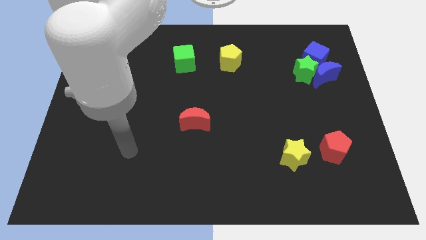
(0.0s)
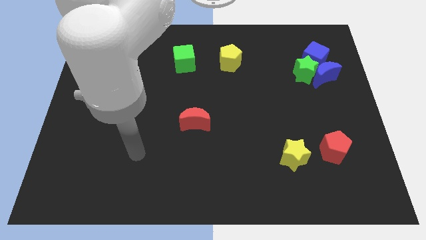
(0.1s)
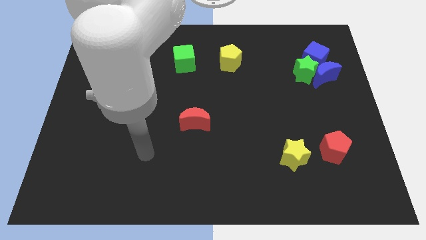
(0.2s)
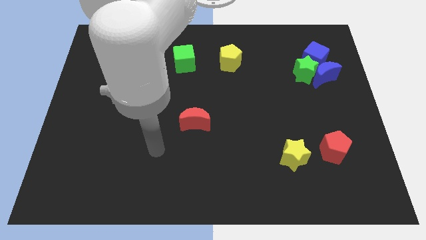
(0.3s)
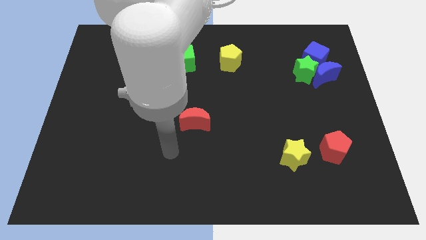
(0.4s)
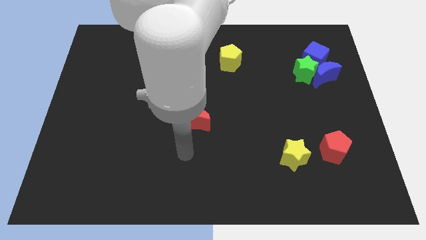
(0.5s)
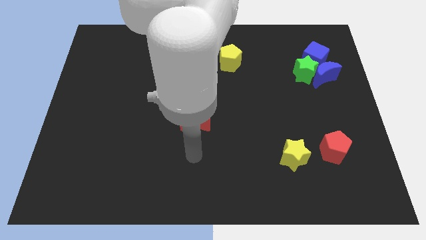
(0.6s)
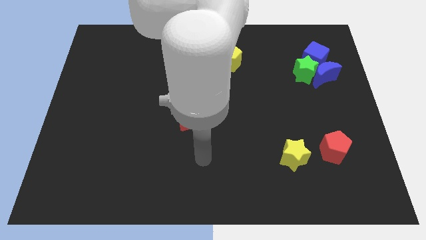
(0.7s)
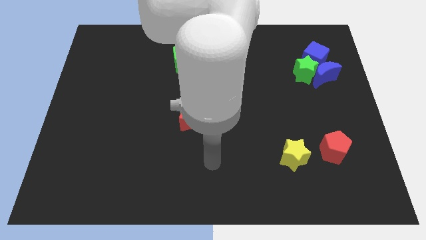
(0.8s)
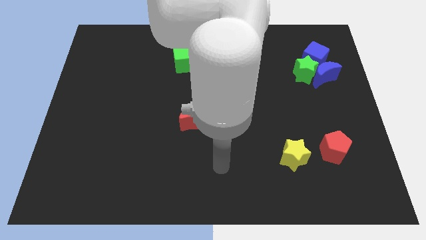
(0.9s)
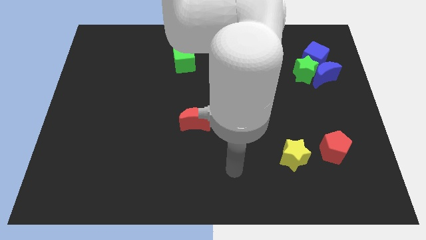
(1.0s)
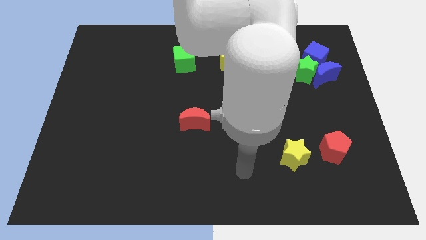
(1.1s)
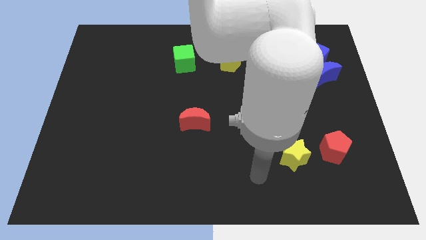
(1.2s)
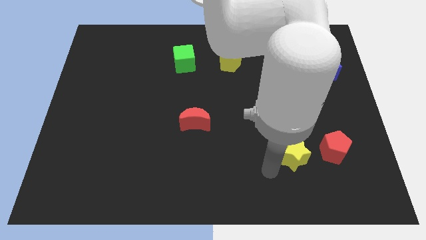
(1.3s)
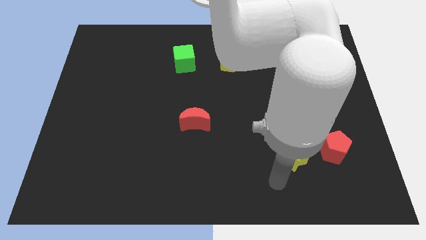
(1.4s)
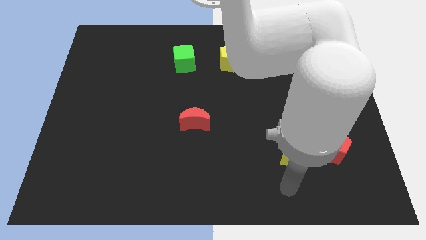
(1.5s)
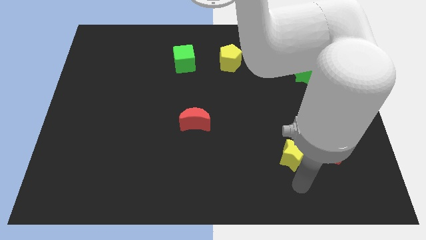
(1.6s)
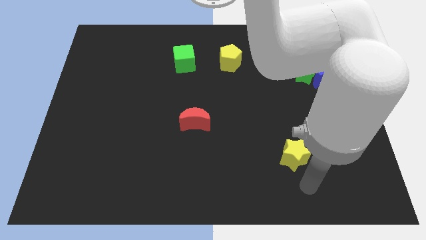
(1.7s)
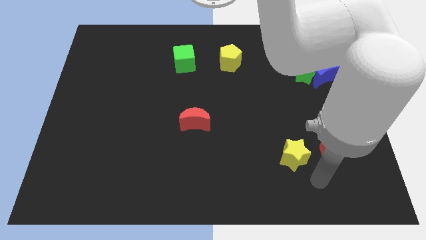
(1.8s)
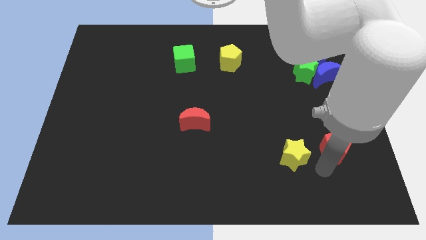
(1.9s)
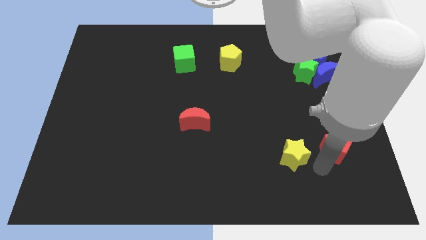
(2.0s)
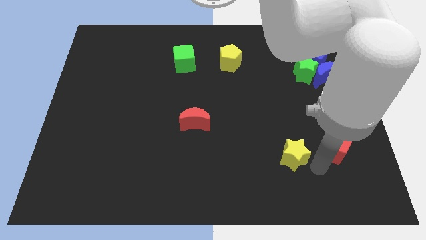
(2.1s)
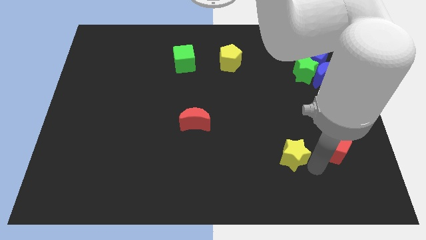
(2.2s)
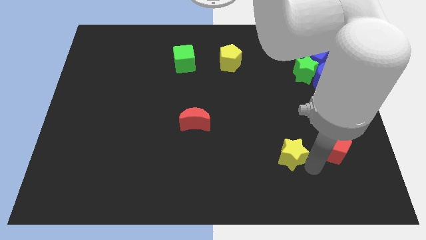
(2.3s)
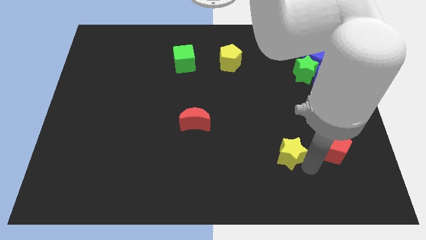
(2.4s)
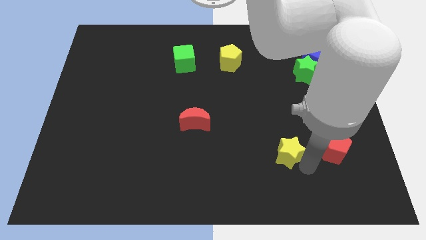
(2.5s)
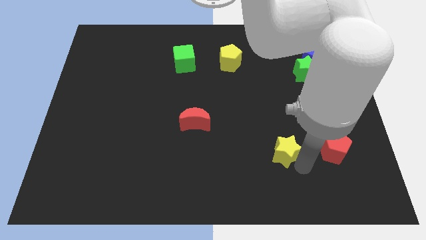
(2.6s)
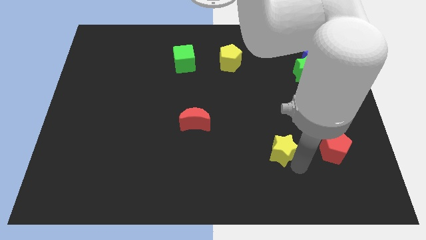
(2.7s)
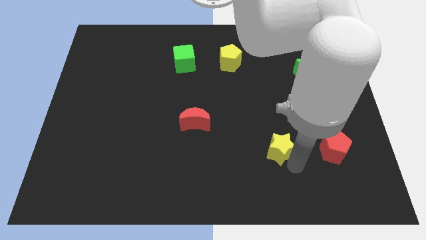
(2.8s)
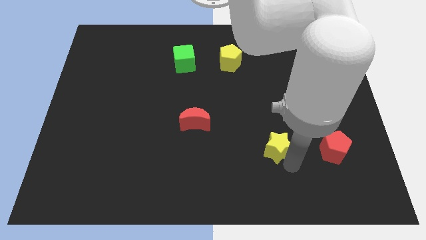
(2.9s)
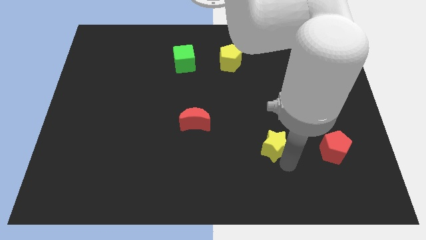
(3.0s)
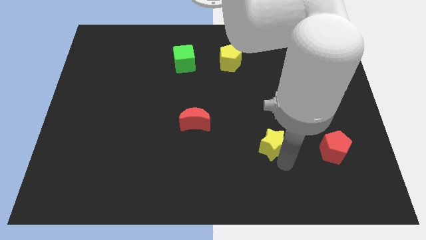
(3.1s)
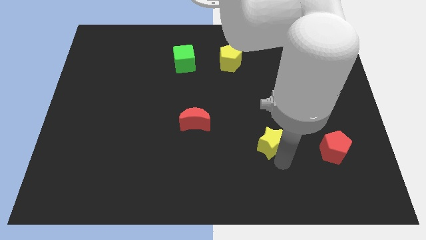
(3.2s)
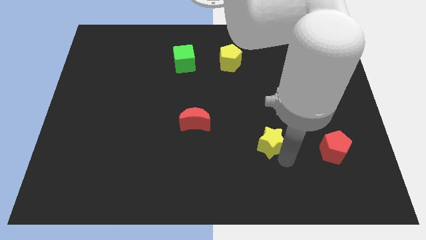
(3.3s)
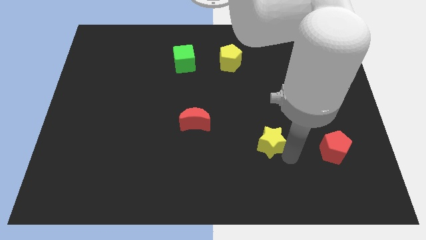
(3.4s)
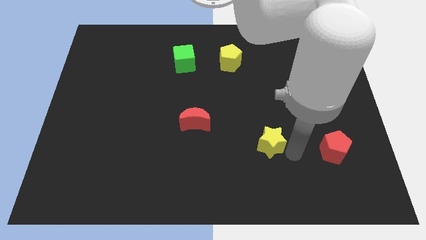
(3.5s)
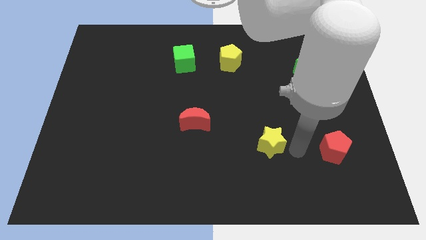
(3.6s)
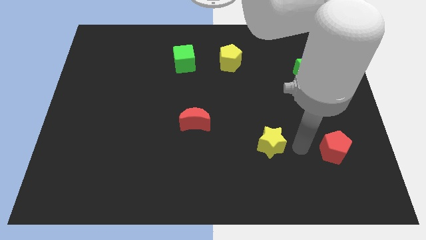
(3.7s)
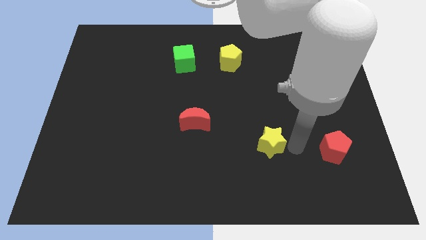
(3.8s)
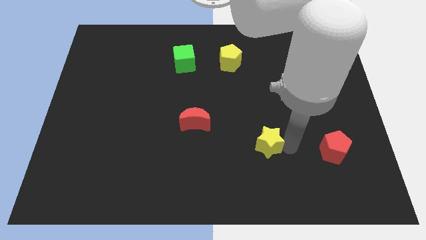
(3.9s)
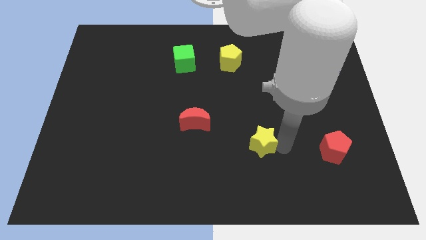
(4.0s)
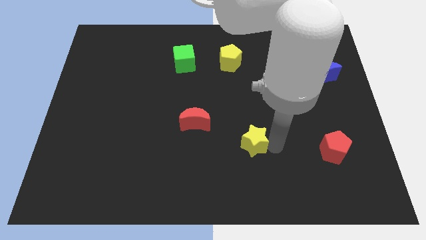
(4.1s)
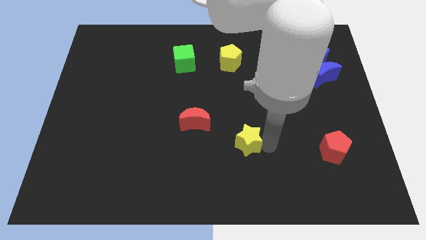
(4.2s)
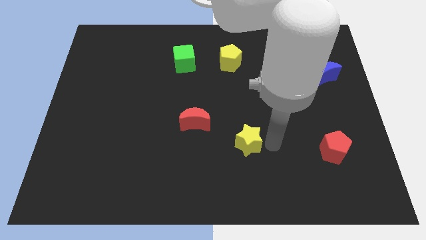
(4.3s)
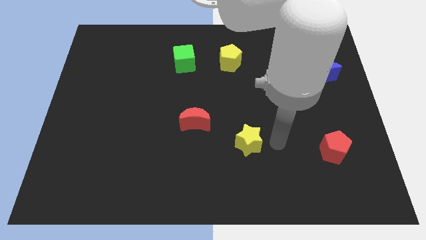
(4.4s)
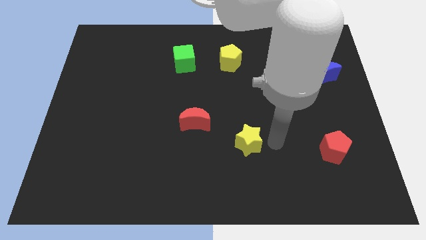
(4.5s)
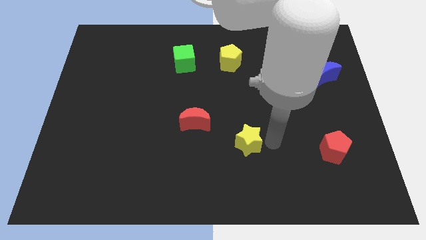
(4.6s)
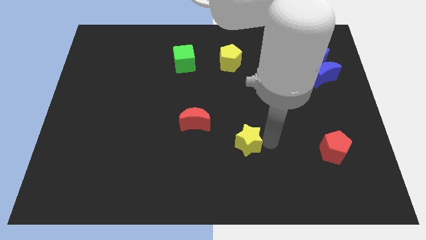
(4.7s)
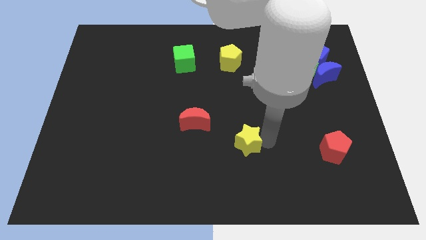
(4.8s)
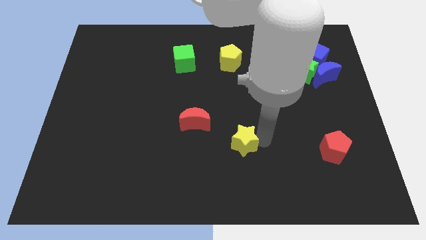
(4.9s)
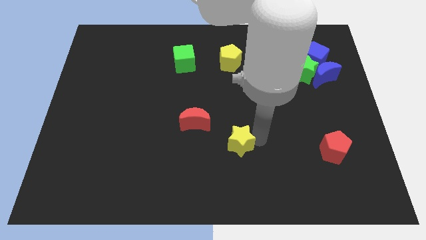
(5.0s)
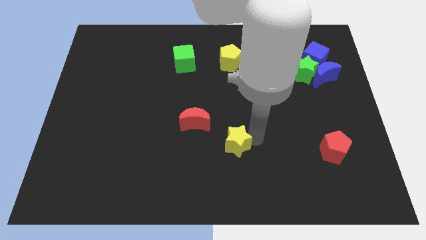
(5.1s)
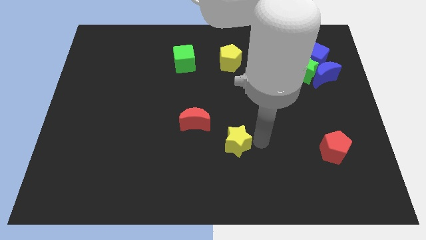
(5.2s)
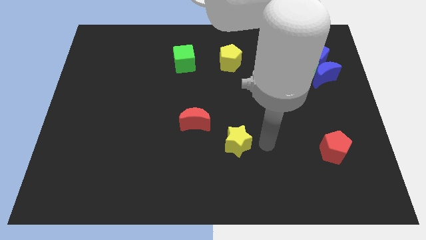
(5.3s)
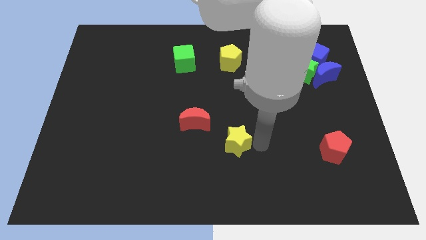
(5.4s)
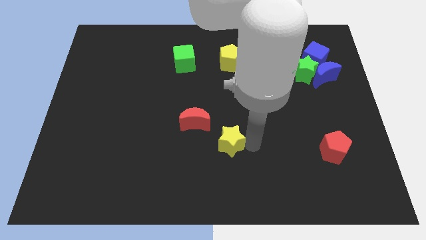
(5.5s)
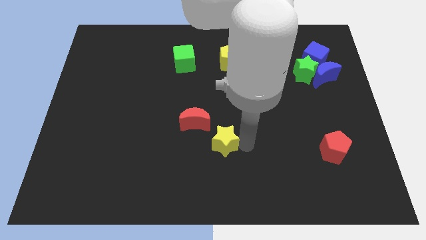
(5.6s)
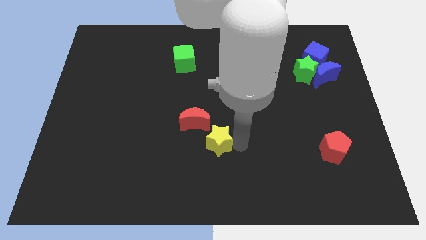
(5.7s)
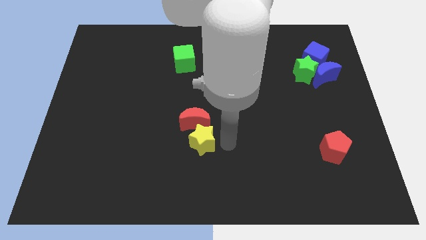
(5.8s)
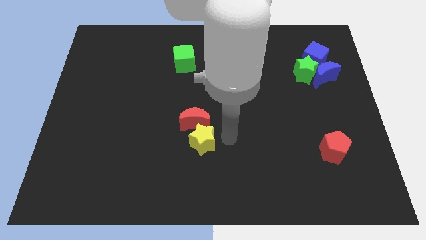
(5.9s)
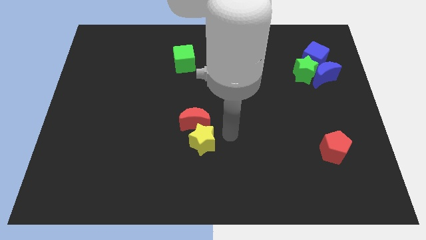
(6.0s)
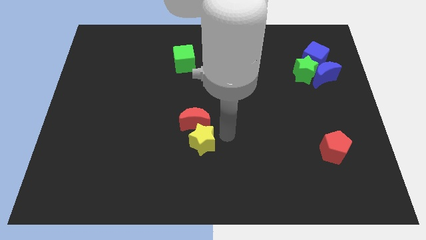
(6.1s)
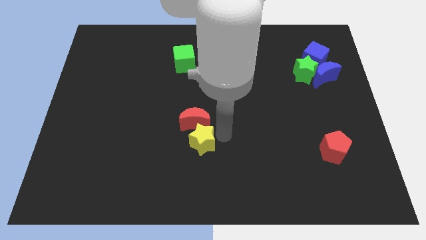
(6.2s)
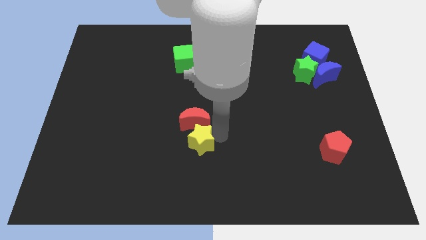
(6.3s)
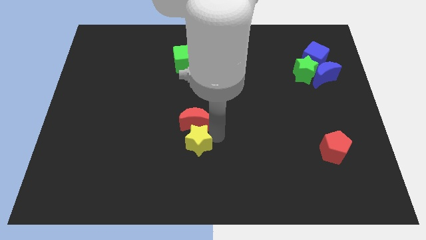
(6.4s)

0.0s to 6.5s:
push the yellow star to the left

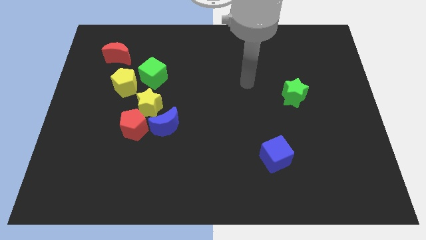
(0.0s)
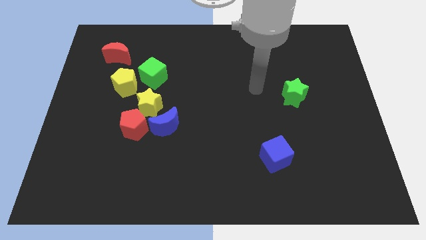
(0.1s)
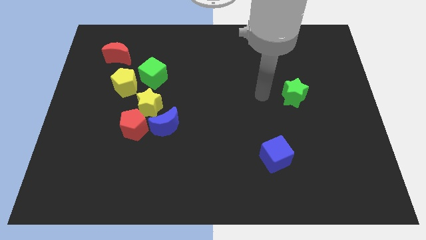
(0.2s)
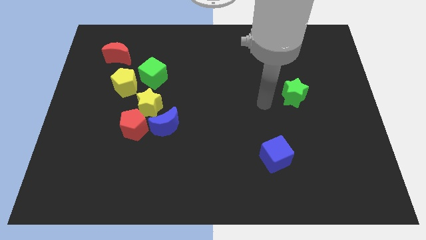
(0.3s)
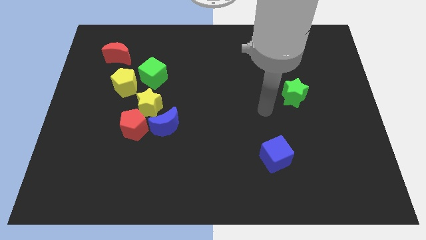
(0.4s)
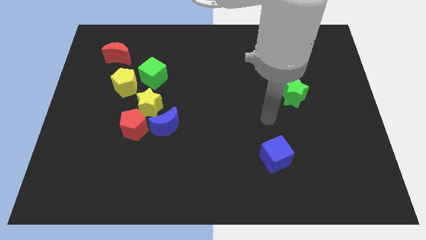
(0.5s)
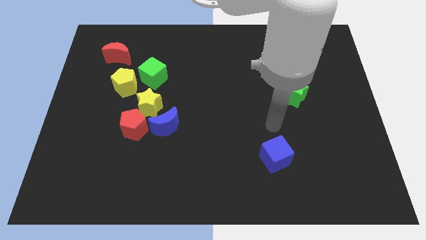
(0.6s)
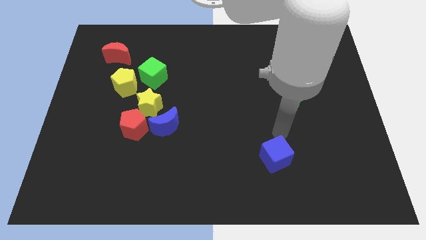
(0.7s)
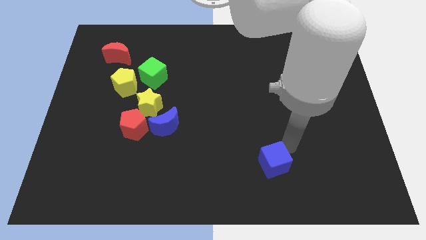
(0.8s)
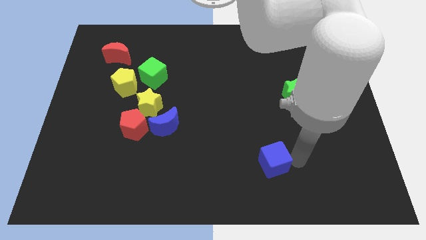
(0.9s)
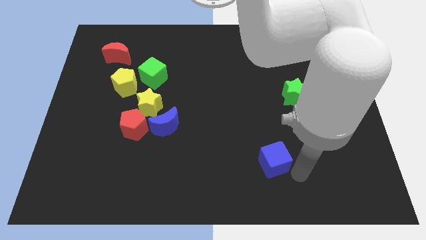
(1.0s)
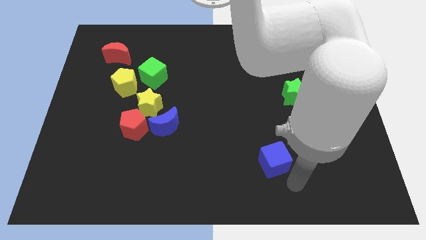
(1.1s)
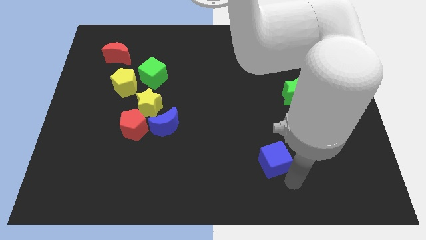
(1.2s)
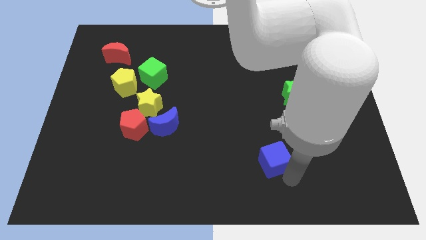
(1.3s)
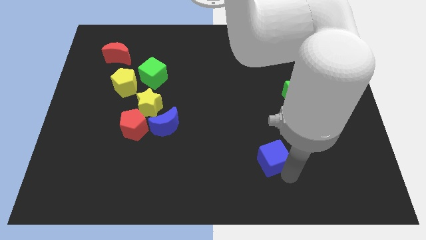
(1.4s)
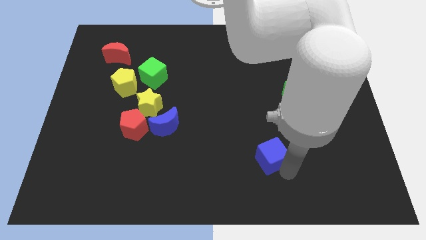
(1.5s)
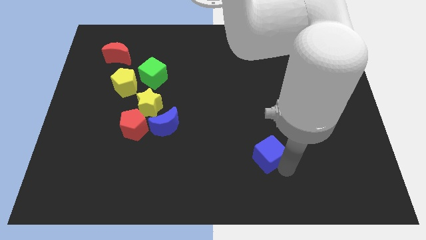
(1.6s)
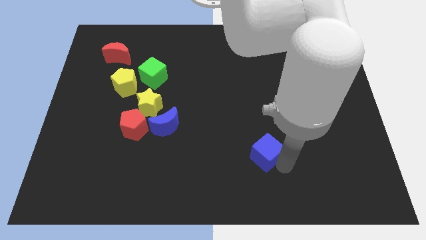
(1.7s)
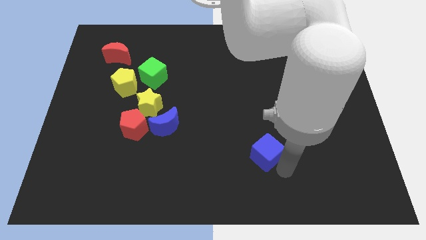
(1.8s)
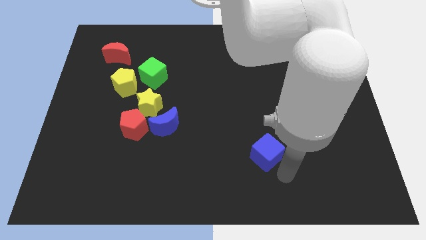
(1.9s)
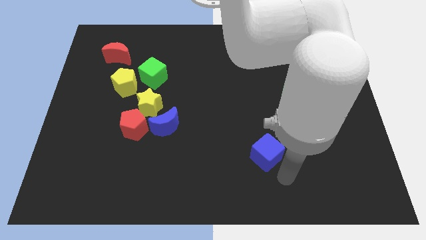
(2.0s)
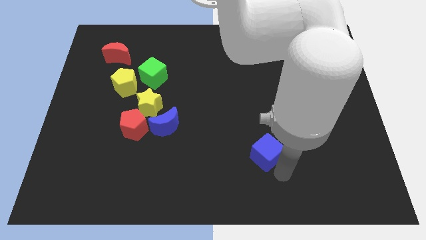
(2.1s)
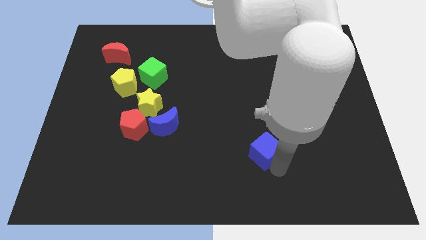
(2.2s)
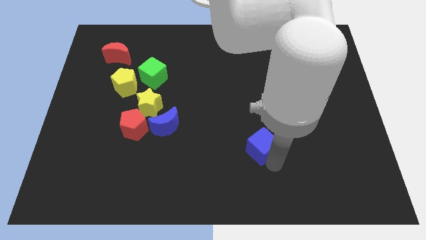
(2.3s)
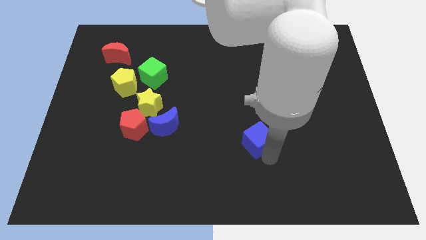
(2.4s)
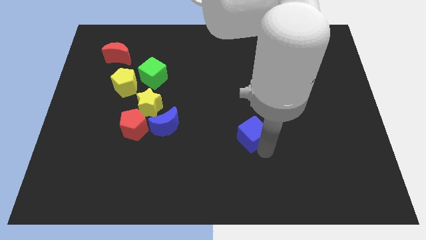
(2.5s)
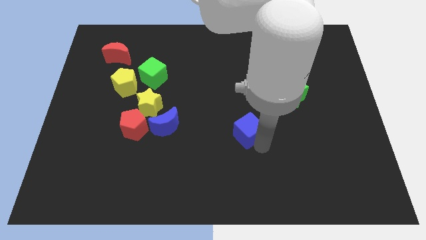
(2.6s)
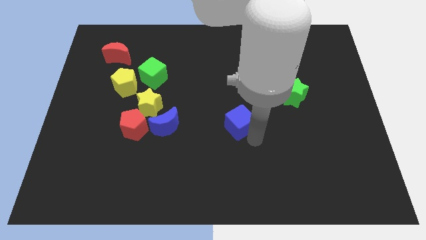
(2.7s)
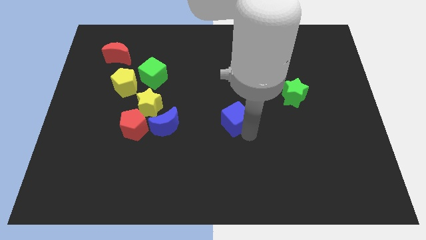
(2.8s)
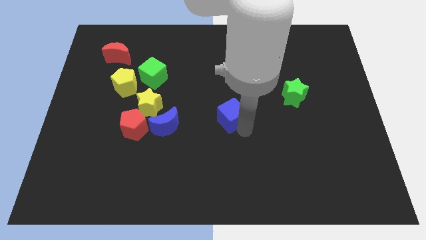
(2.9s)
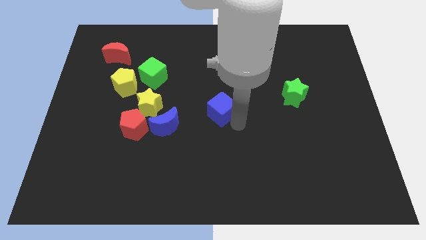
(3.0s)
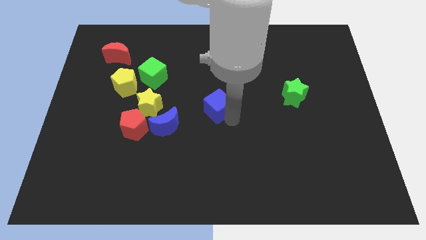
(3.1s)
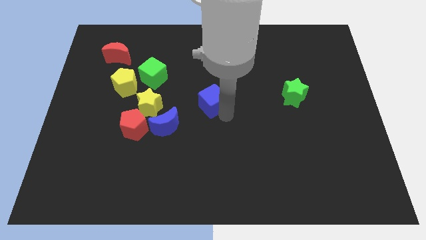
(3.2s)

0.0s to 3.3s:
move the blue cube up and then to the left
